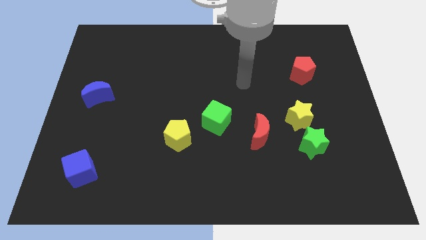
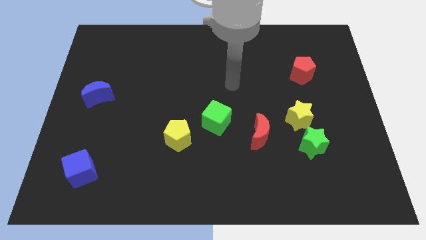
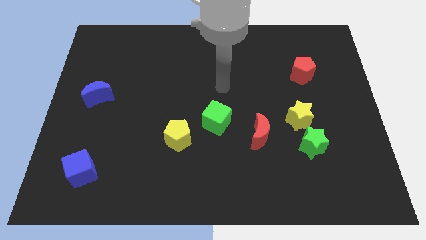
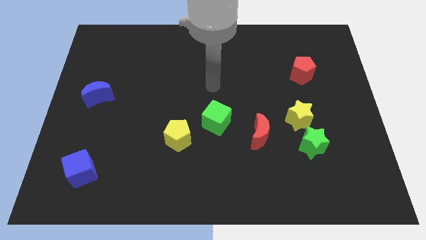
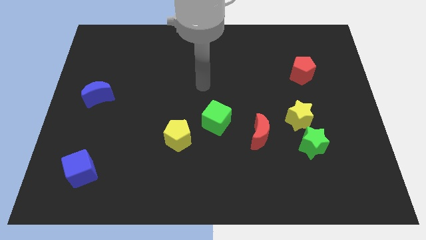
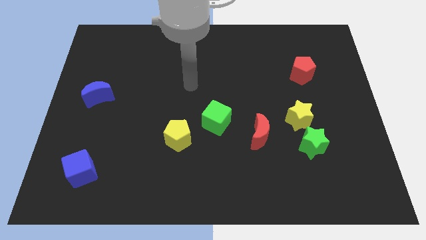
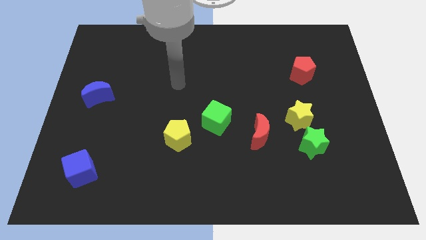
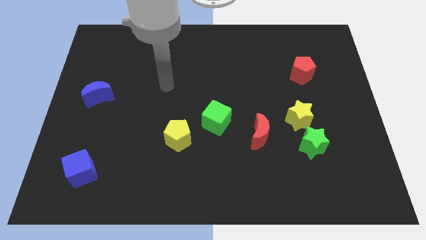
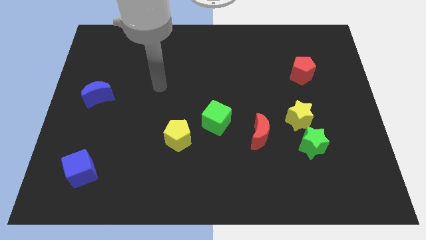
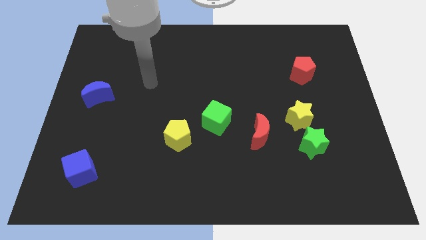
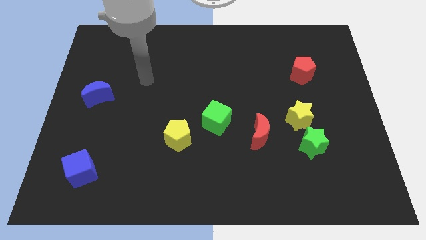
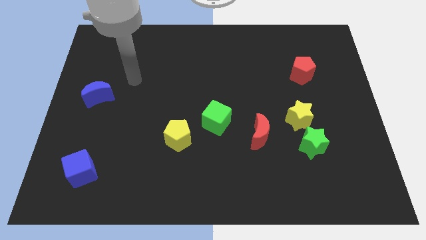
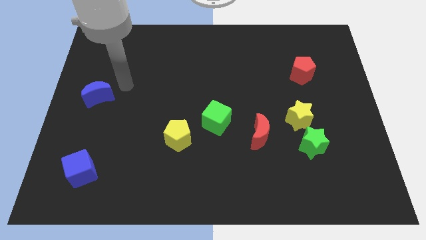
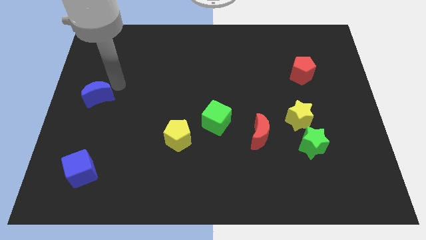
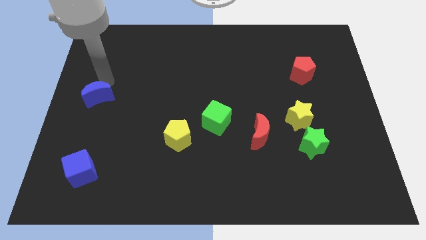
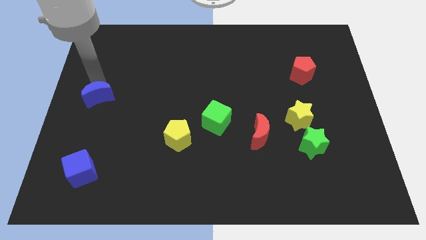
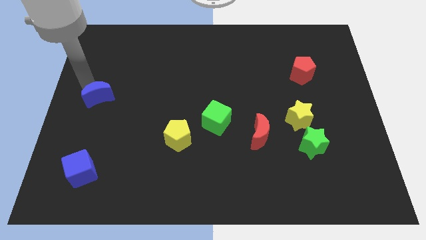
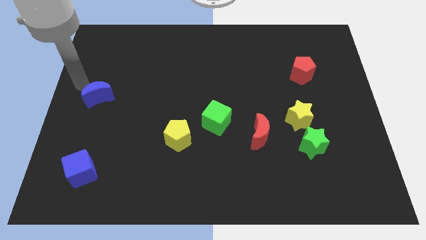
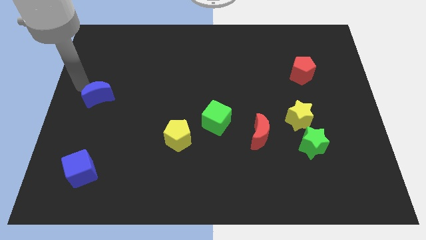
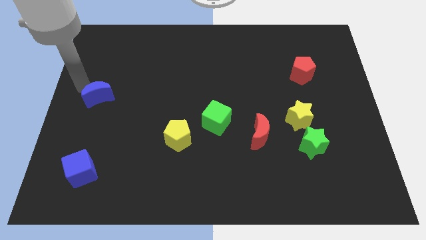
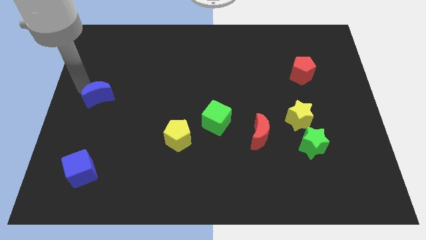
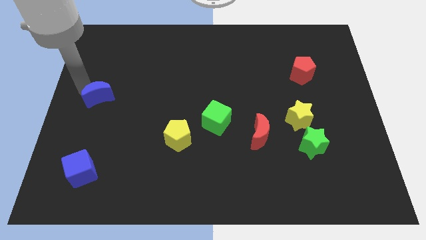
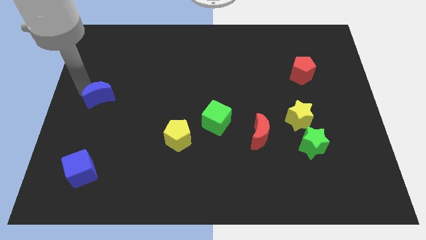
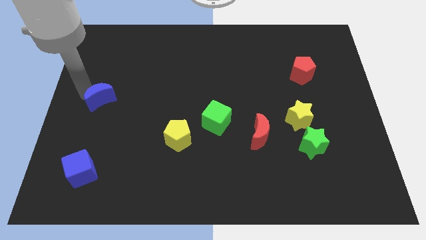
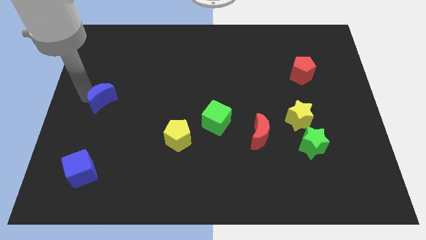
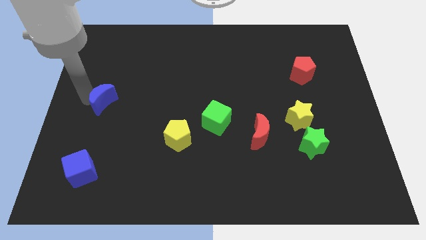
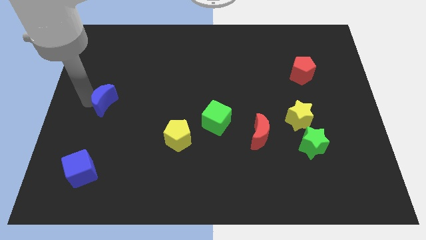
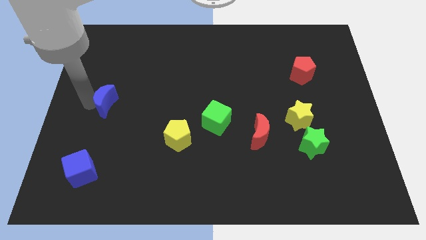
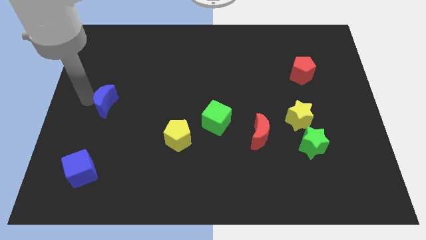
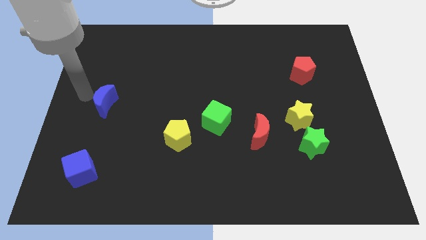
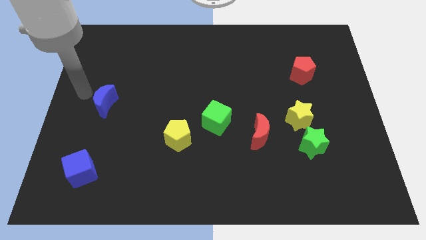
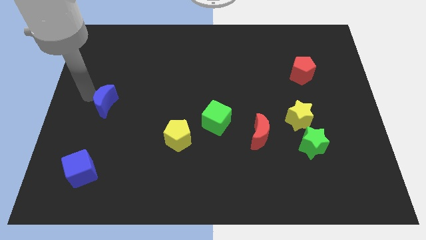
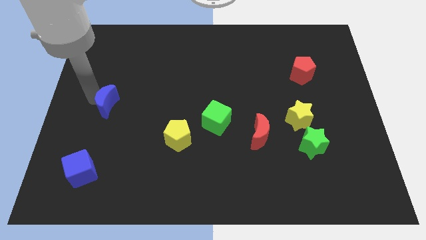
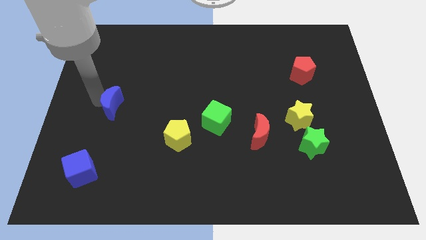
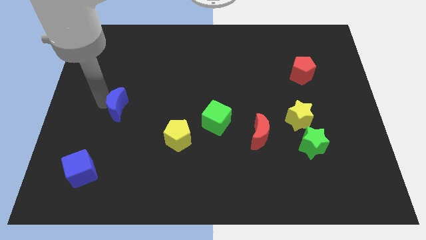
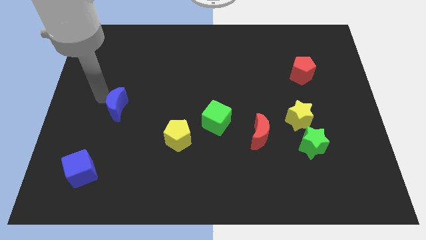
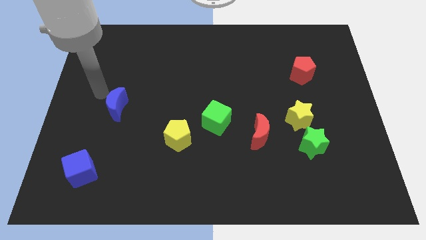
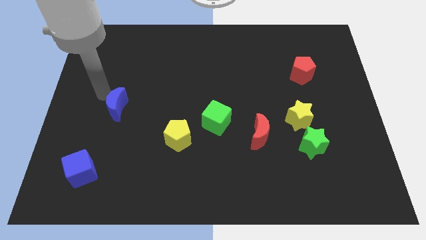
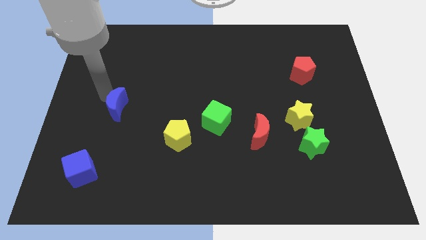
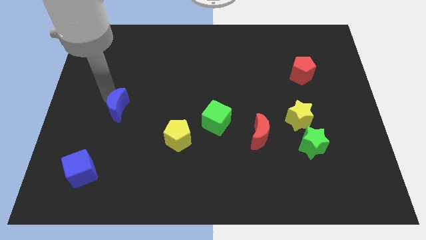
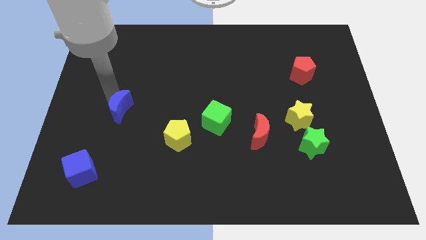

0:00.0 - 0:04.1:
push the blue moon diagonally down and to the right somewhat

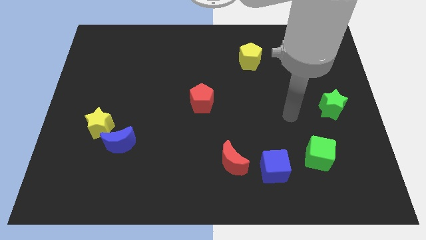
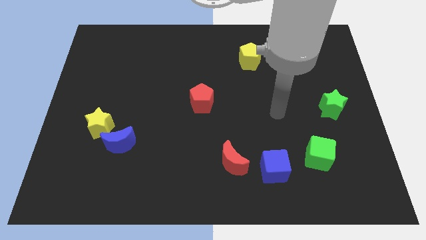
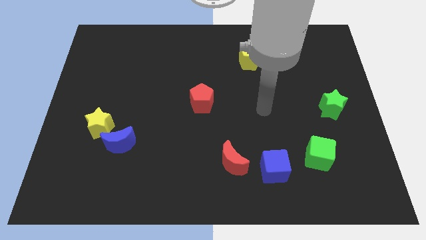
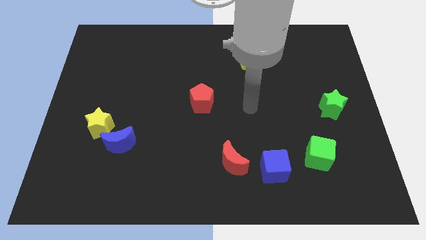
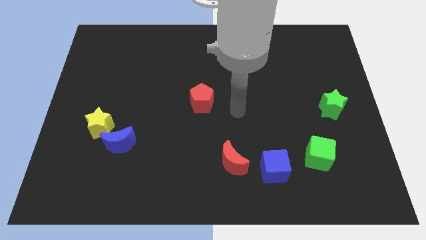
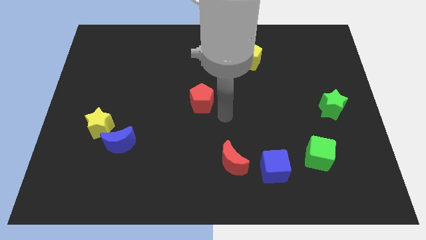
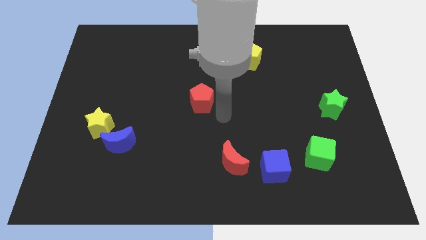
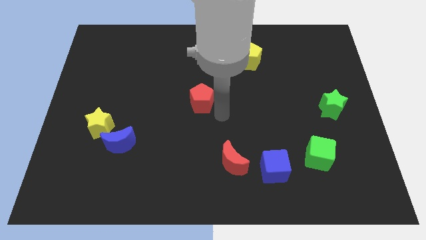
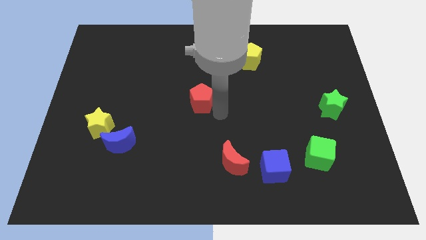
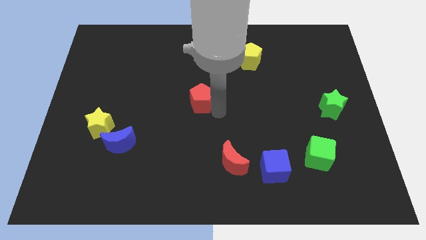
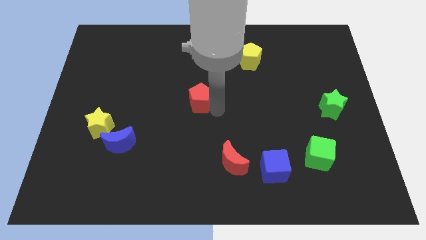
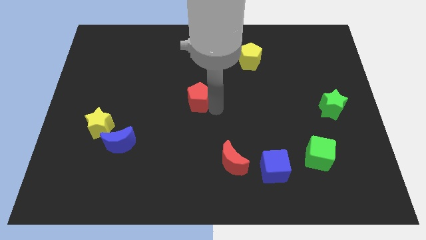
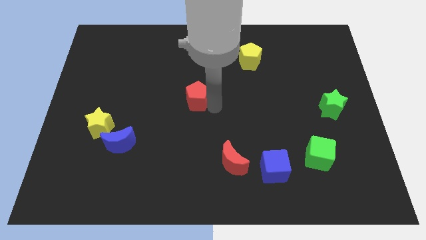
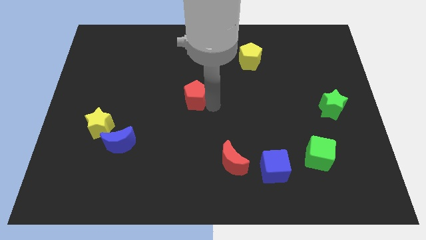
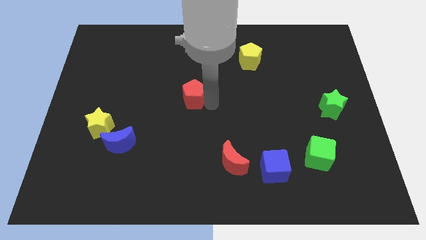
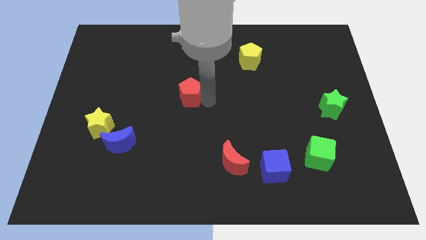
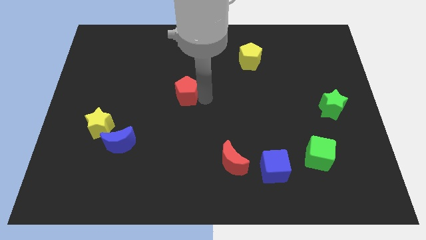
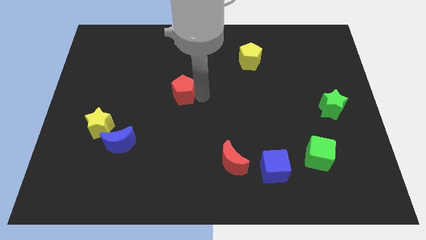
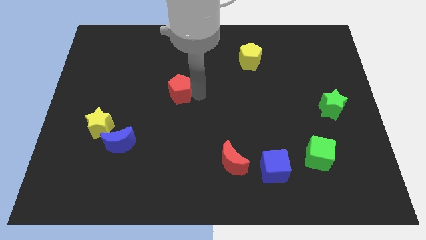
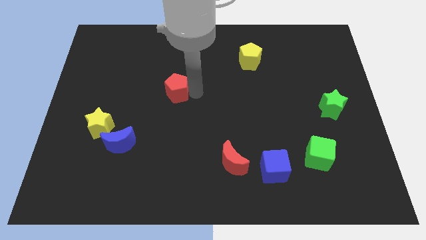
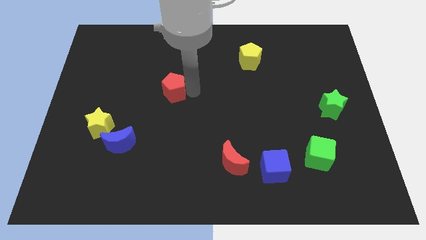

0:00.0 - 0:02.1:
slightly slide the red pentagon up and left

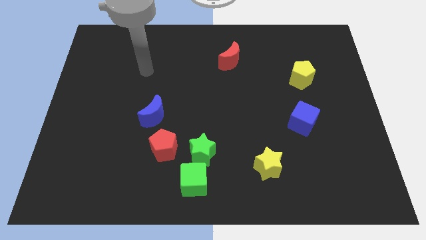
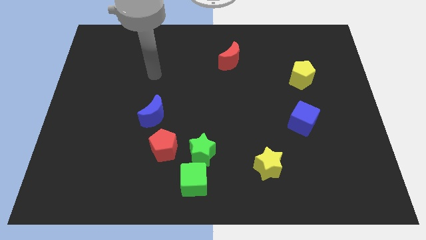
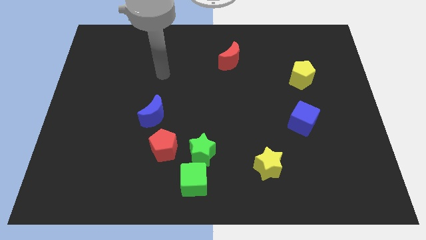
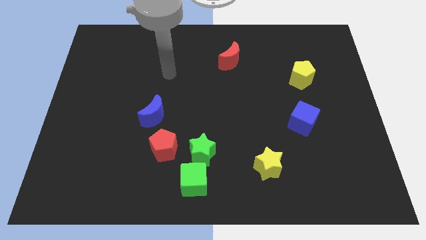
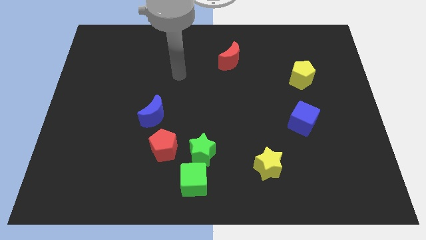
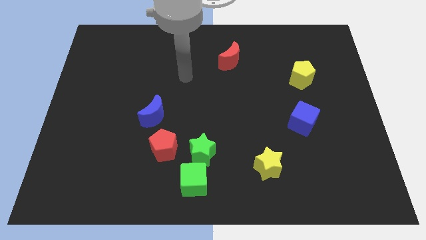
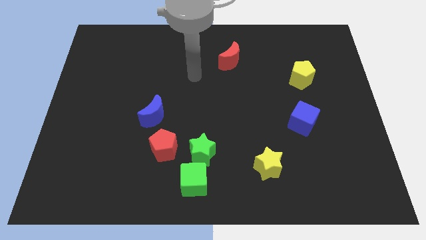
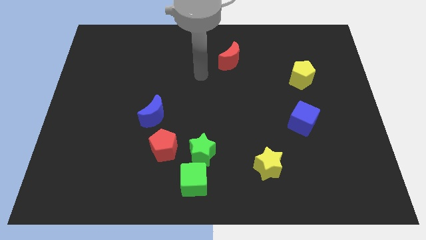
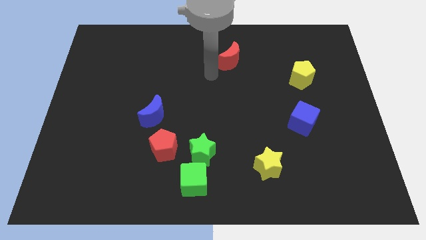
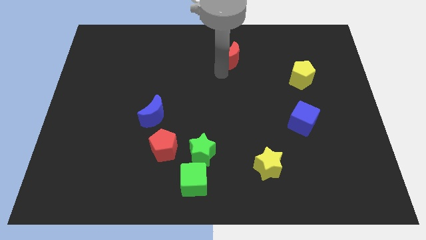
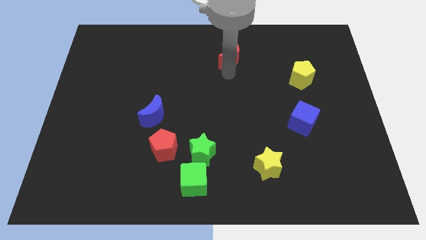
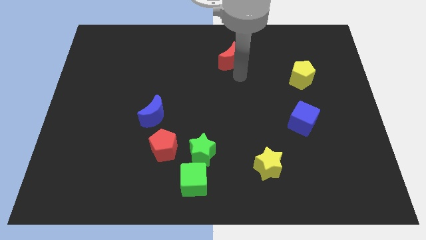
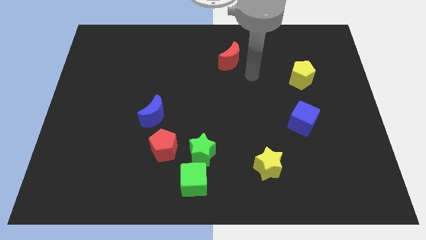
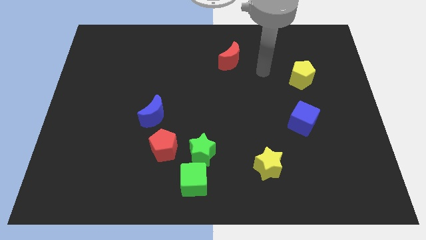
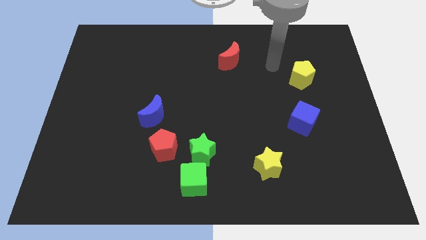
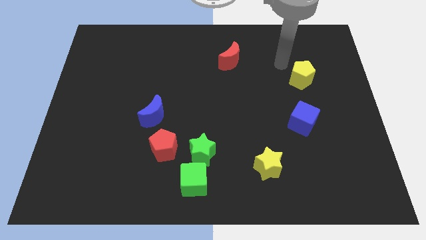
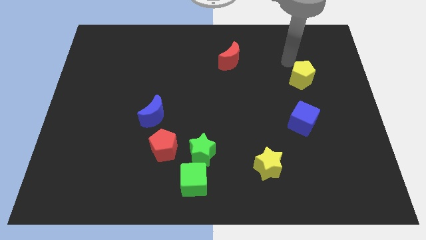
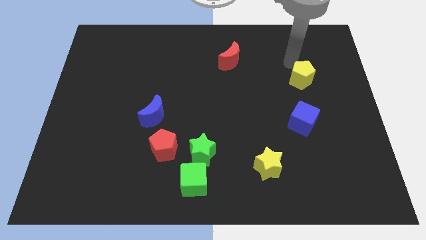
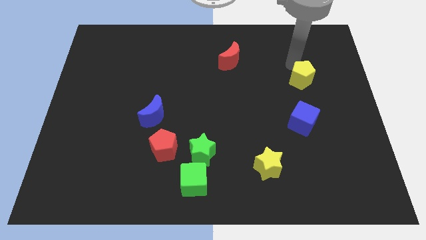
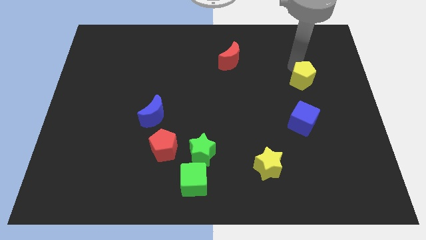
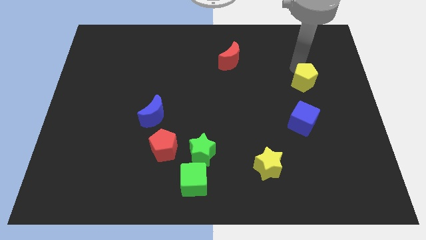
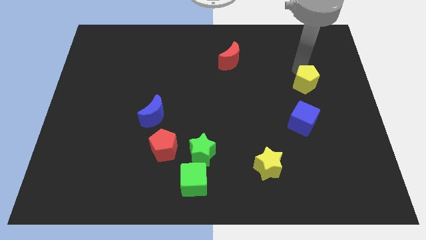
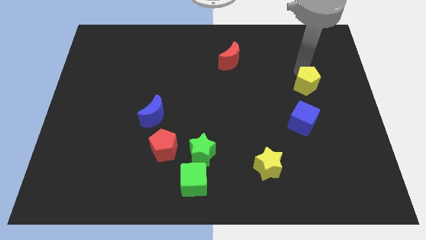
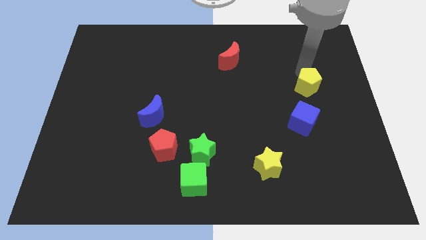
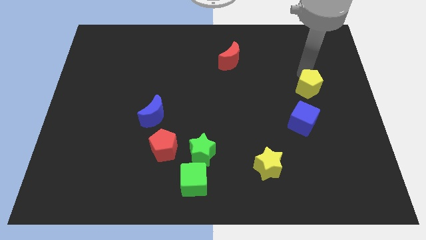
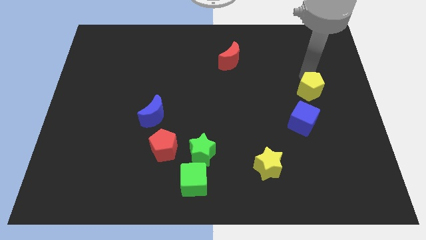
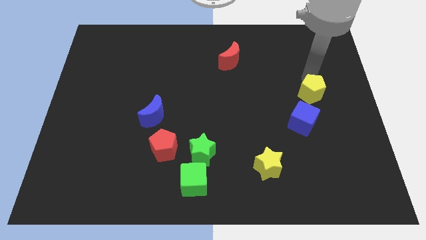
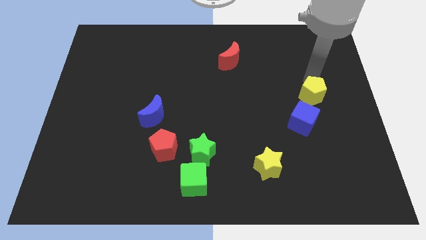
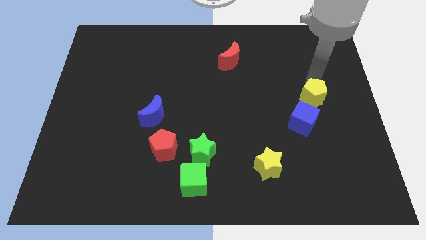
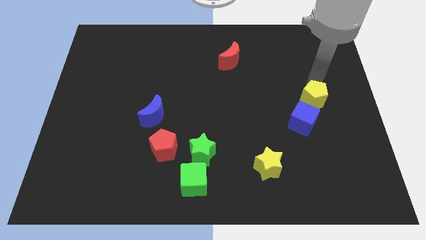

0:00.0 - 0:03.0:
slide the yellow pentagon down slightly
